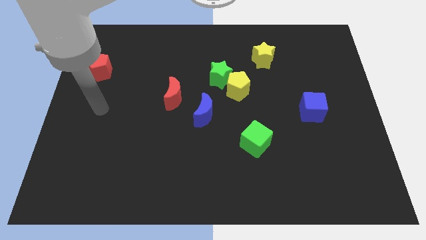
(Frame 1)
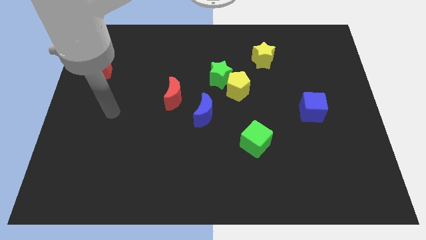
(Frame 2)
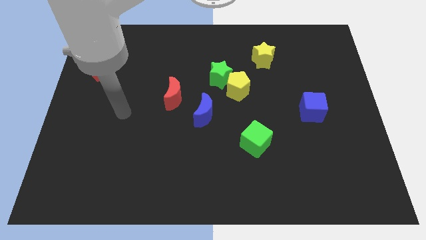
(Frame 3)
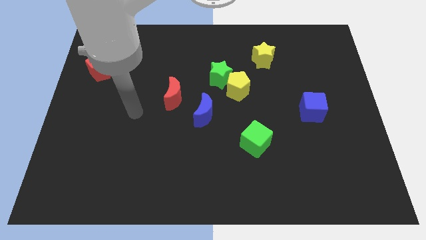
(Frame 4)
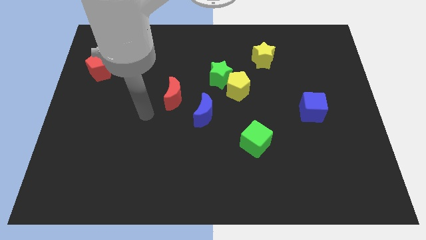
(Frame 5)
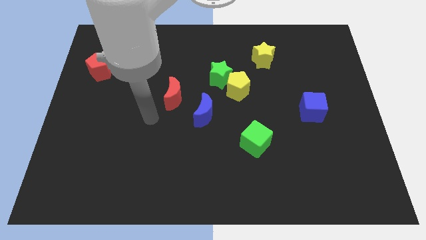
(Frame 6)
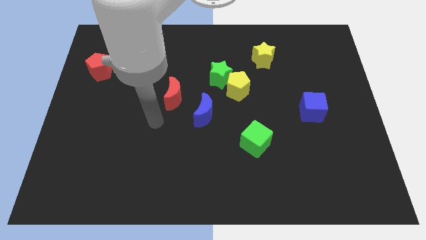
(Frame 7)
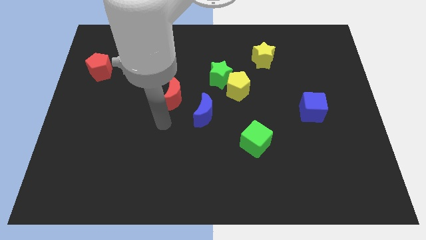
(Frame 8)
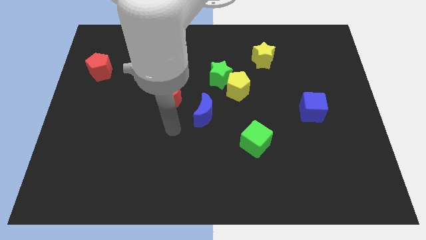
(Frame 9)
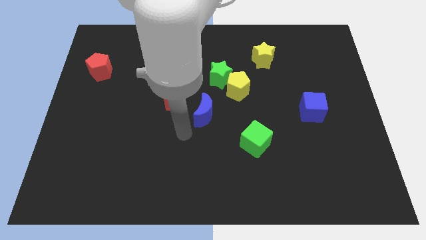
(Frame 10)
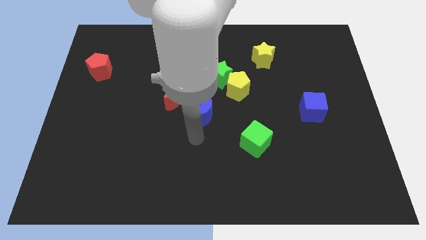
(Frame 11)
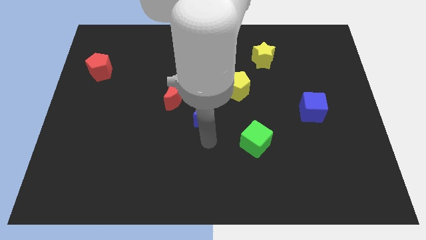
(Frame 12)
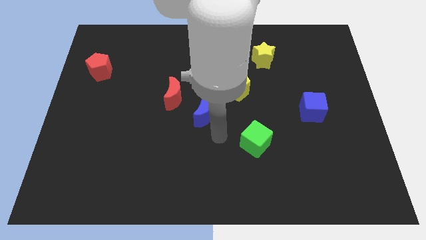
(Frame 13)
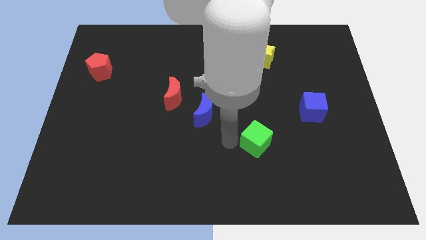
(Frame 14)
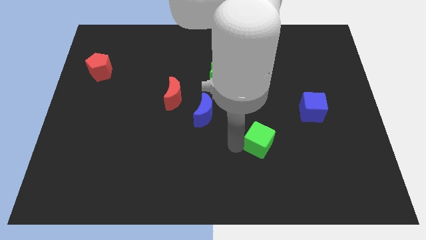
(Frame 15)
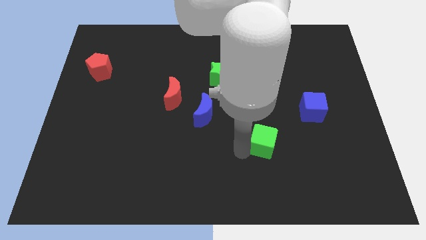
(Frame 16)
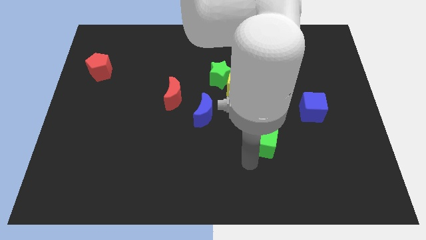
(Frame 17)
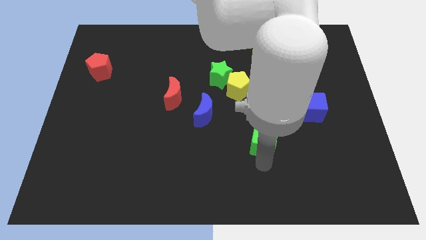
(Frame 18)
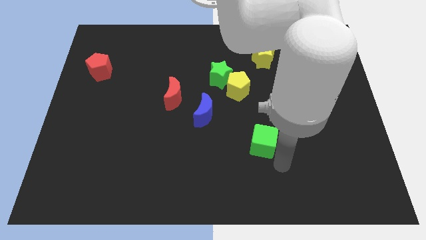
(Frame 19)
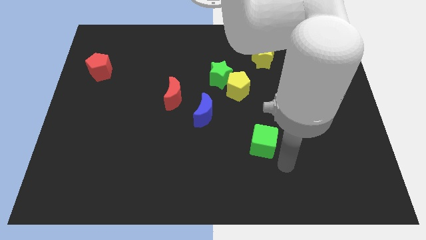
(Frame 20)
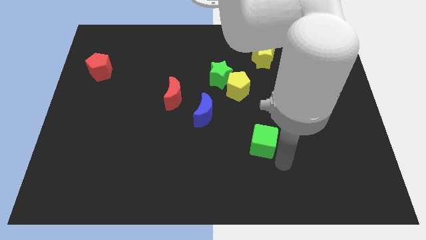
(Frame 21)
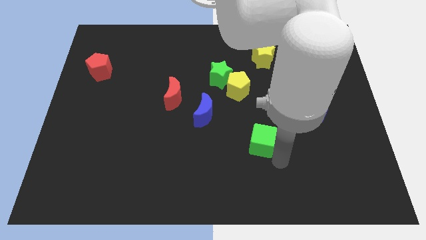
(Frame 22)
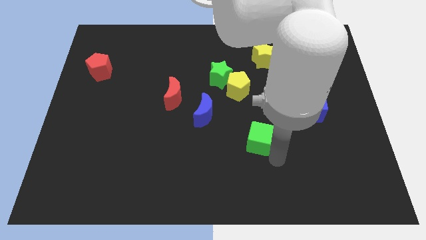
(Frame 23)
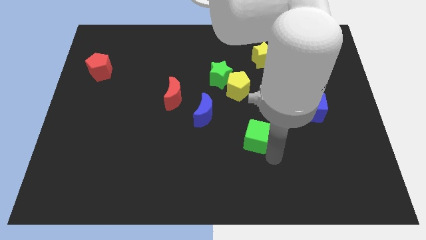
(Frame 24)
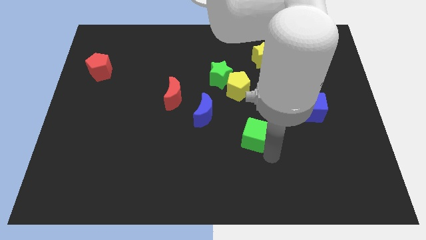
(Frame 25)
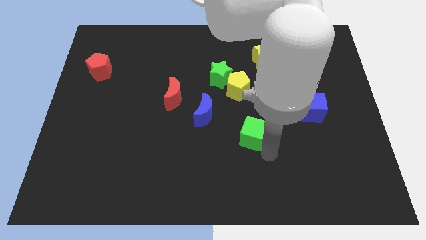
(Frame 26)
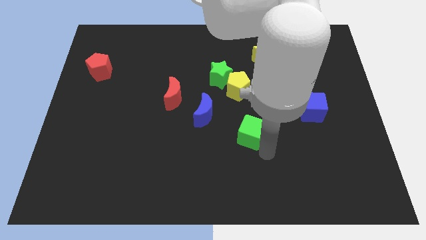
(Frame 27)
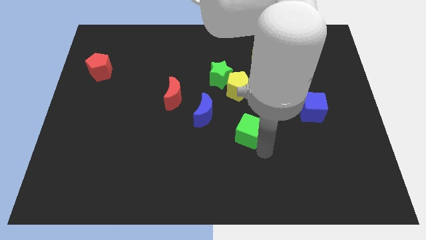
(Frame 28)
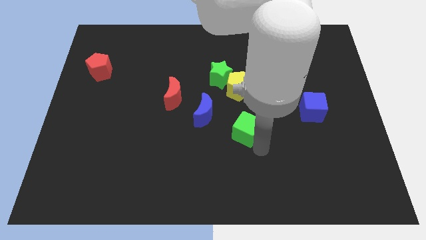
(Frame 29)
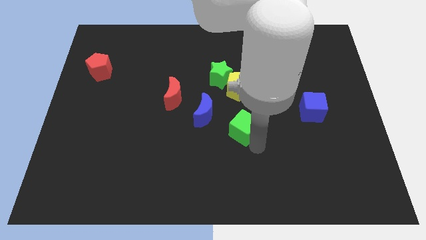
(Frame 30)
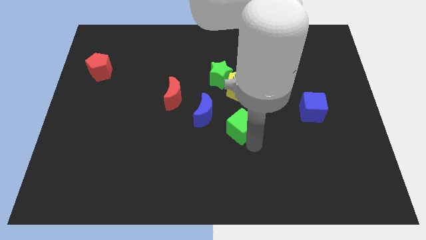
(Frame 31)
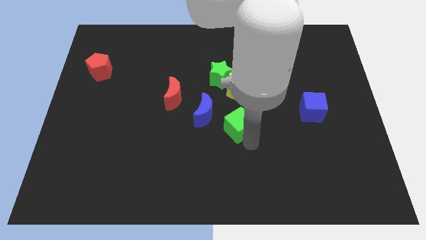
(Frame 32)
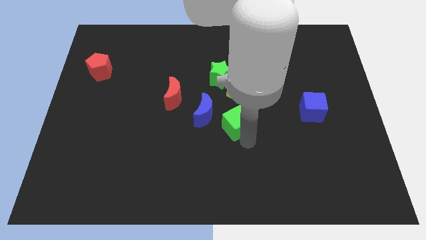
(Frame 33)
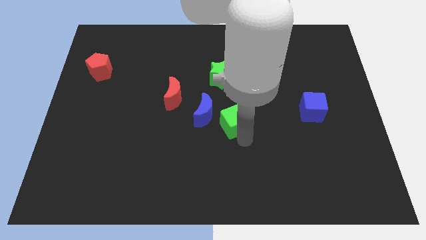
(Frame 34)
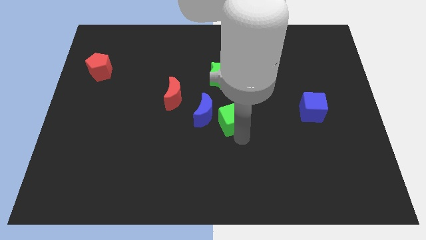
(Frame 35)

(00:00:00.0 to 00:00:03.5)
slightly move the green cube up and left diagonally

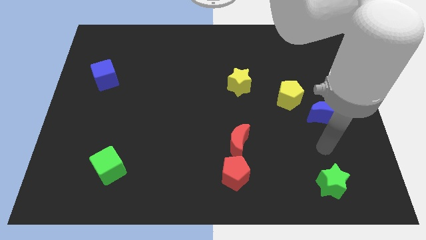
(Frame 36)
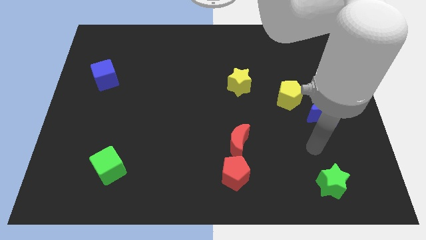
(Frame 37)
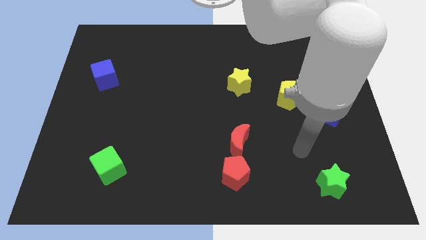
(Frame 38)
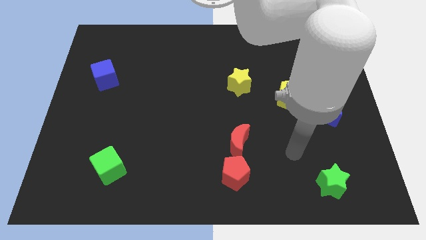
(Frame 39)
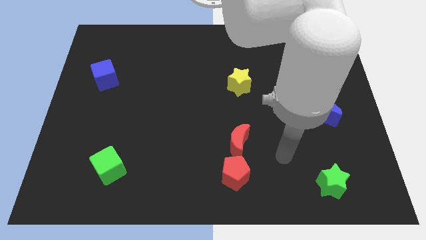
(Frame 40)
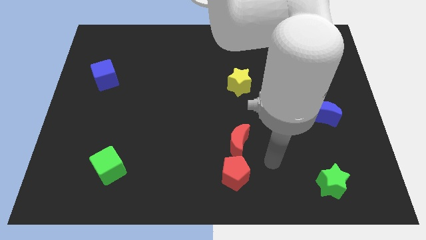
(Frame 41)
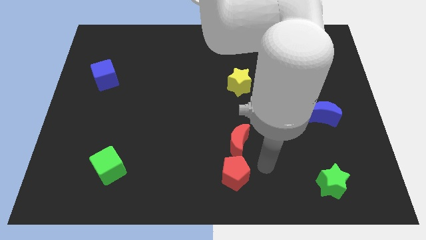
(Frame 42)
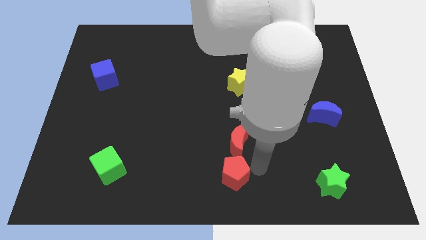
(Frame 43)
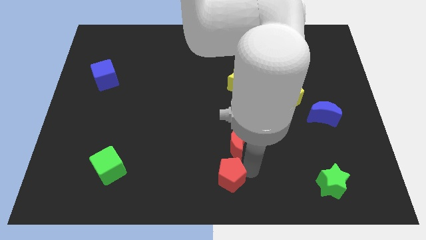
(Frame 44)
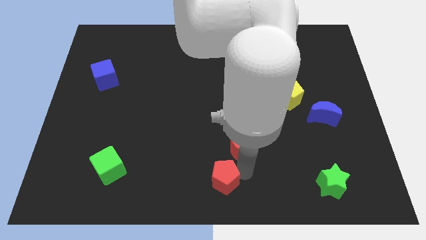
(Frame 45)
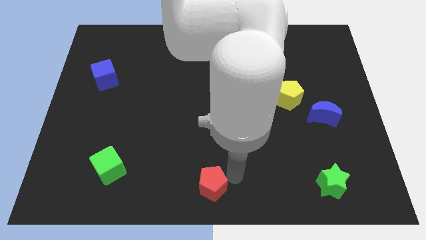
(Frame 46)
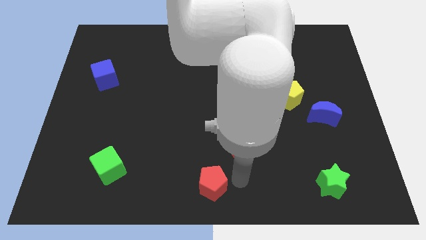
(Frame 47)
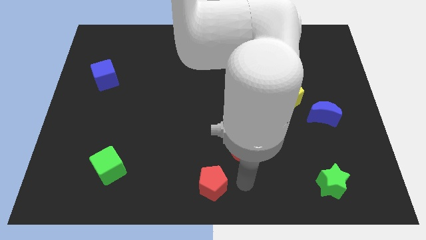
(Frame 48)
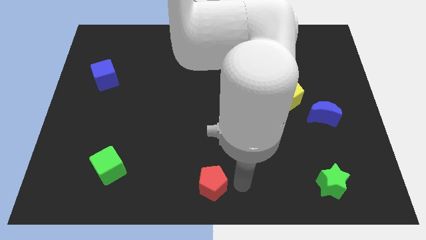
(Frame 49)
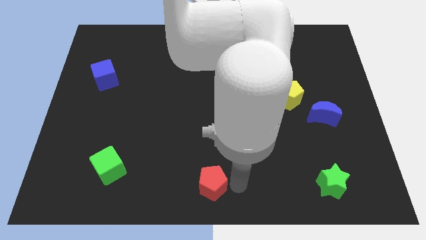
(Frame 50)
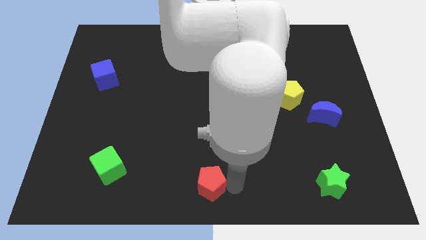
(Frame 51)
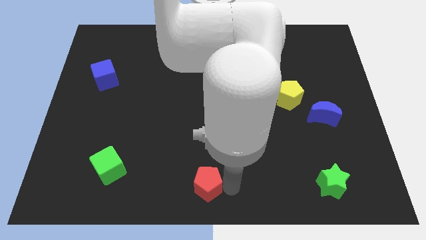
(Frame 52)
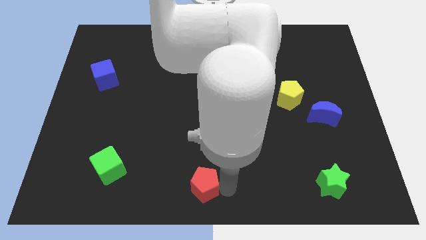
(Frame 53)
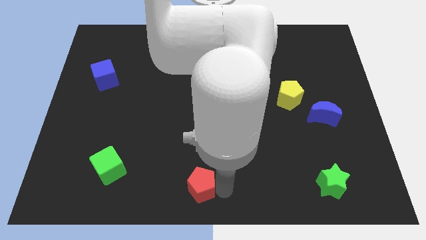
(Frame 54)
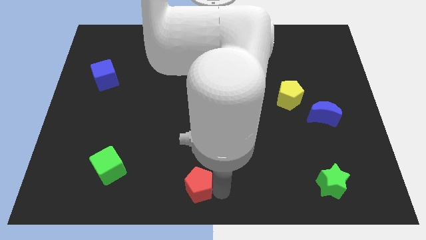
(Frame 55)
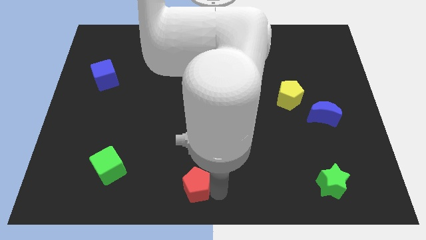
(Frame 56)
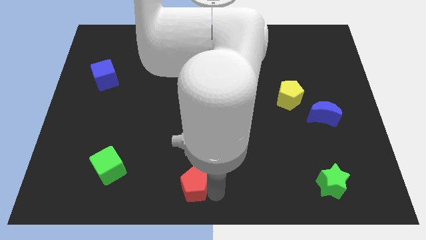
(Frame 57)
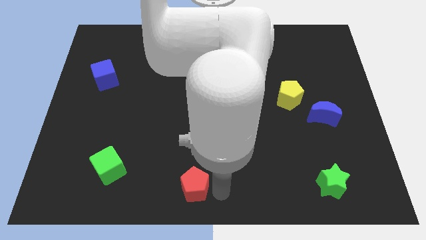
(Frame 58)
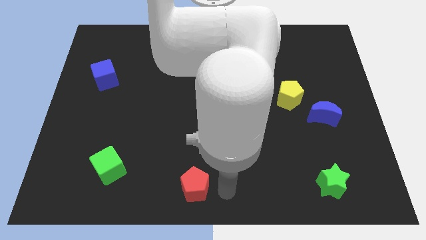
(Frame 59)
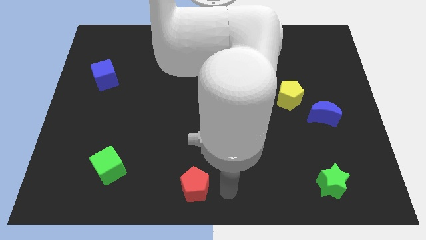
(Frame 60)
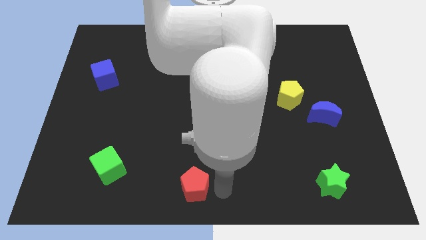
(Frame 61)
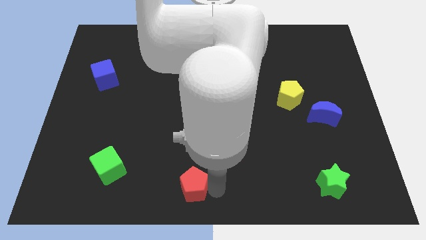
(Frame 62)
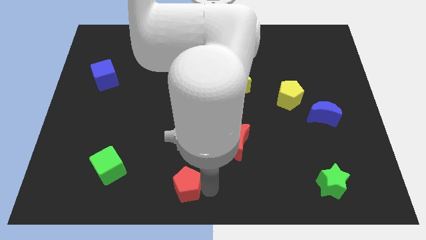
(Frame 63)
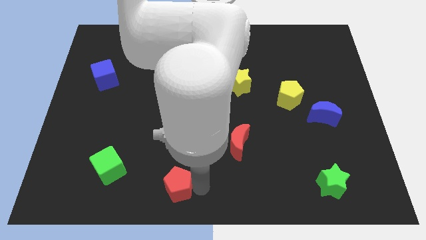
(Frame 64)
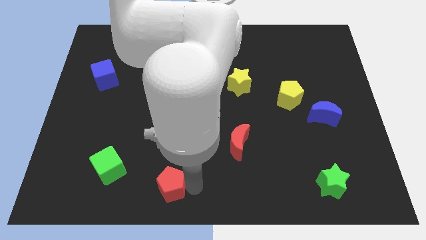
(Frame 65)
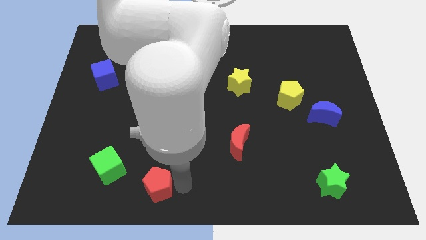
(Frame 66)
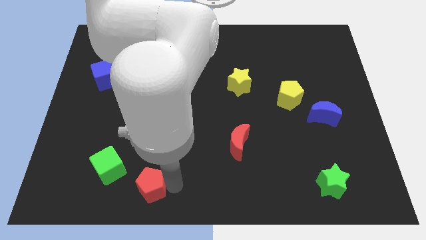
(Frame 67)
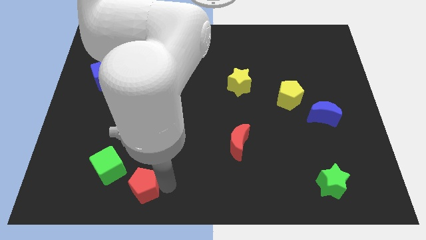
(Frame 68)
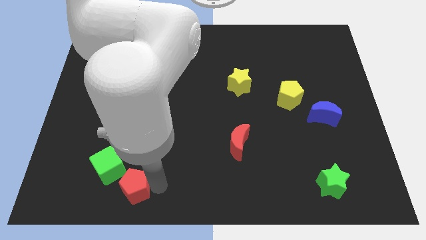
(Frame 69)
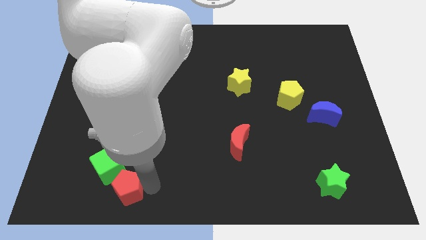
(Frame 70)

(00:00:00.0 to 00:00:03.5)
push the red pentagon to the left

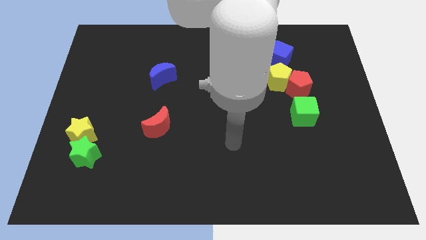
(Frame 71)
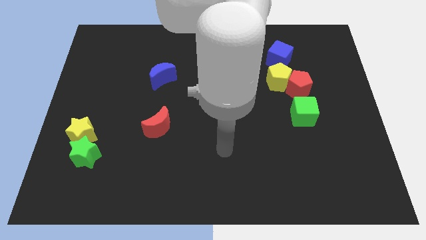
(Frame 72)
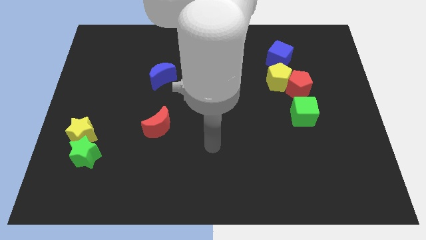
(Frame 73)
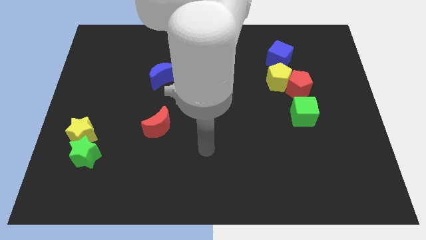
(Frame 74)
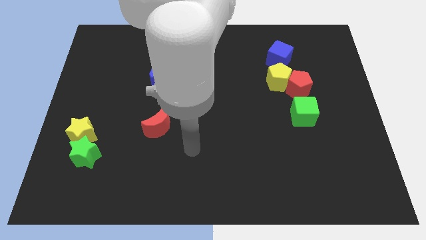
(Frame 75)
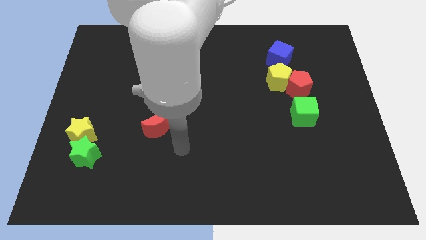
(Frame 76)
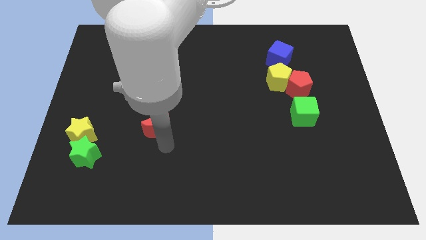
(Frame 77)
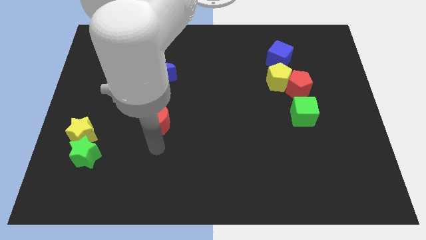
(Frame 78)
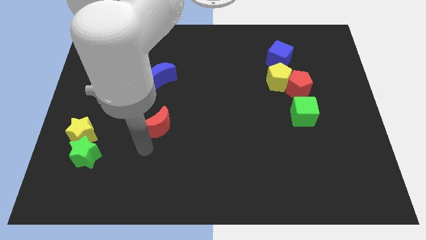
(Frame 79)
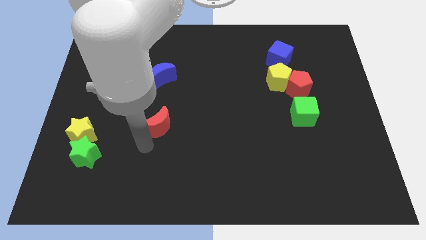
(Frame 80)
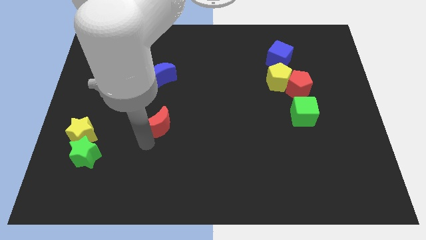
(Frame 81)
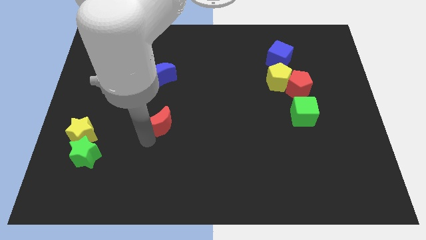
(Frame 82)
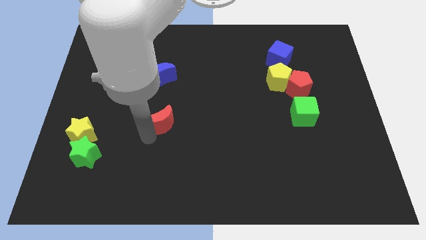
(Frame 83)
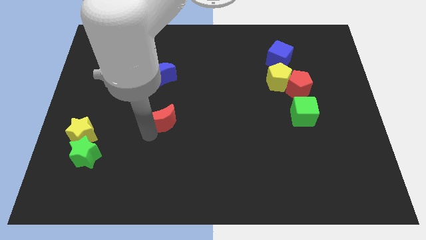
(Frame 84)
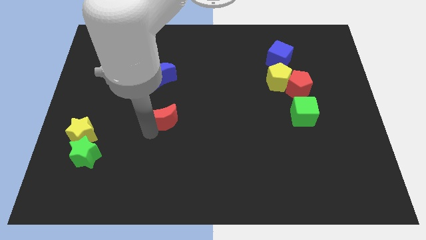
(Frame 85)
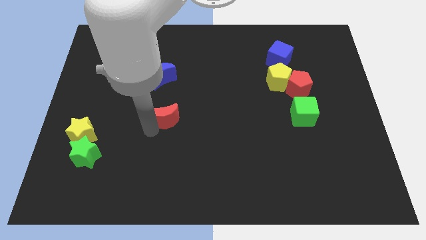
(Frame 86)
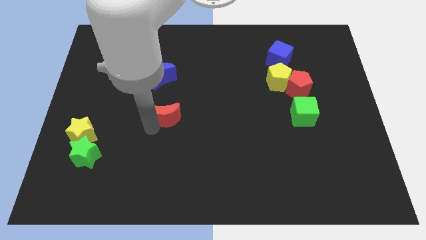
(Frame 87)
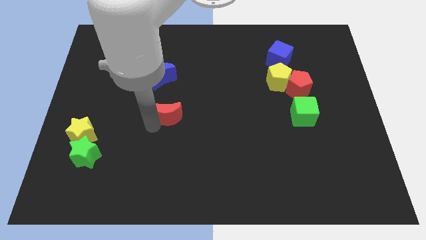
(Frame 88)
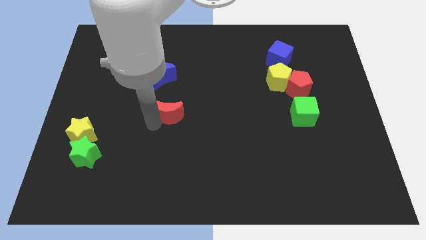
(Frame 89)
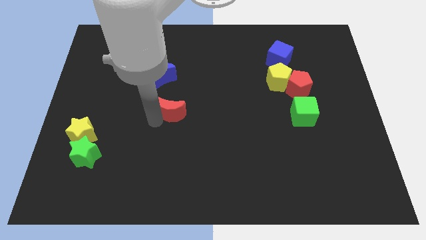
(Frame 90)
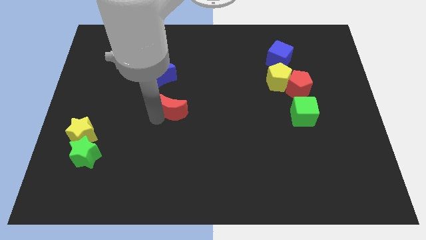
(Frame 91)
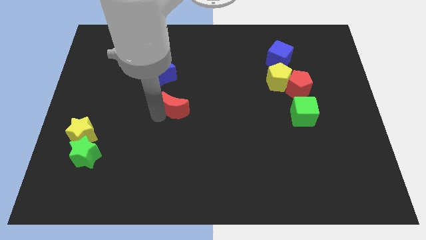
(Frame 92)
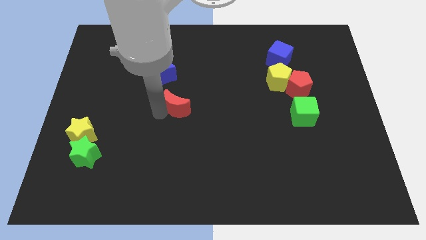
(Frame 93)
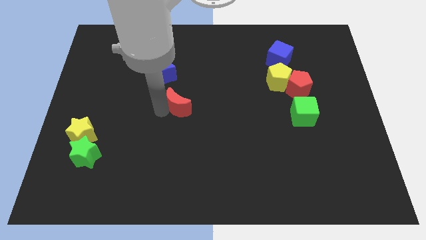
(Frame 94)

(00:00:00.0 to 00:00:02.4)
move the red moon slightly up and to the right diagonally
